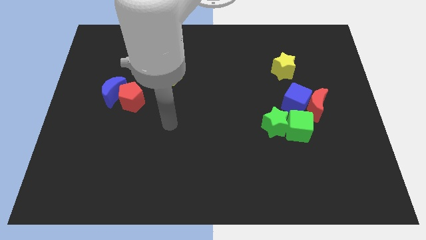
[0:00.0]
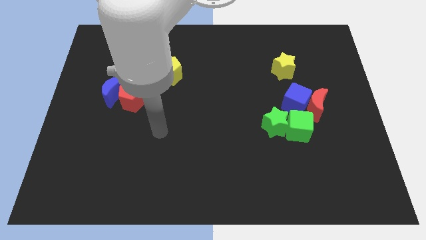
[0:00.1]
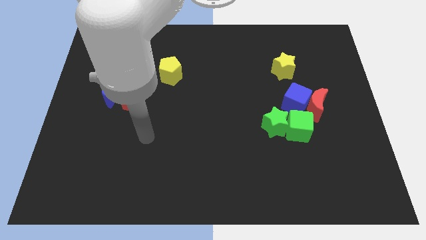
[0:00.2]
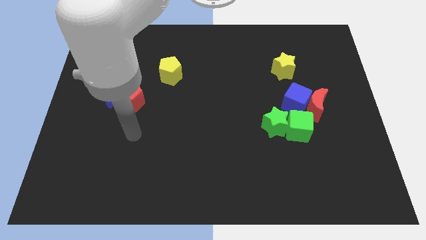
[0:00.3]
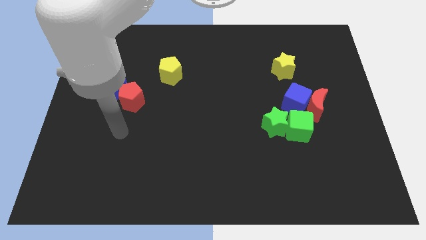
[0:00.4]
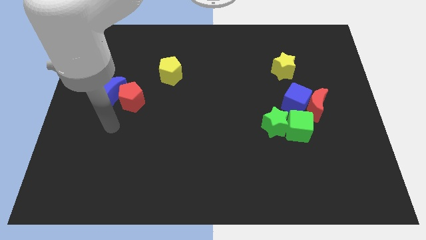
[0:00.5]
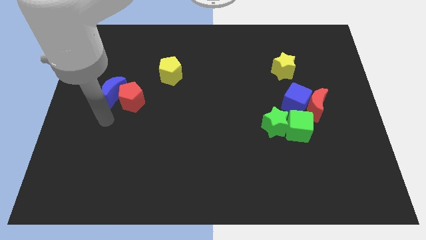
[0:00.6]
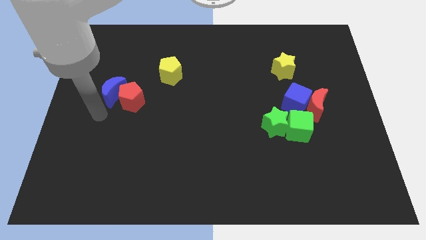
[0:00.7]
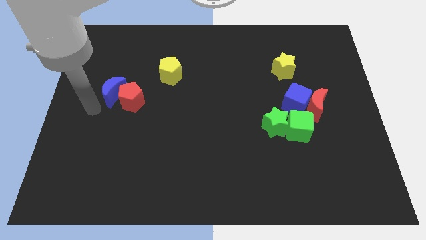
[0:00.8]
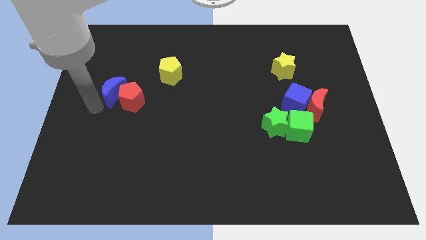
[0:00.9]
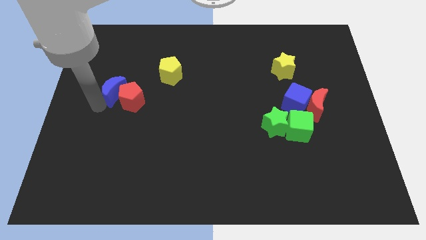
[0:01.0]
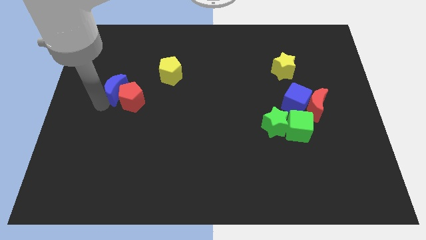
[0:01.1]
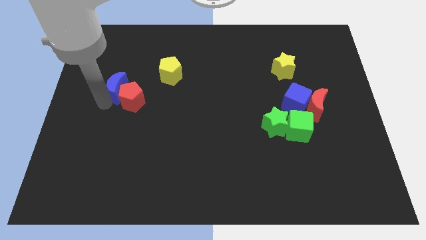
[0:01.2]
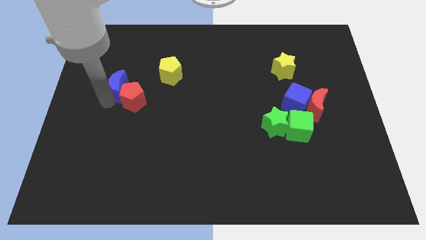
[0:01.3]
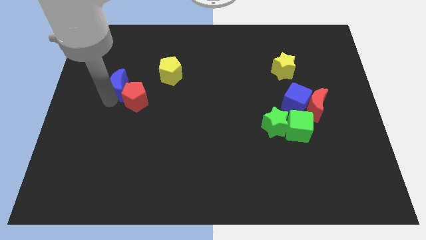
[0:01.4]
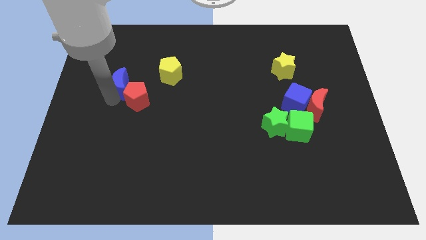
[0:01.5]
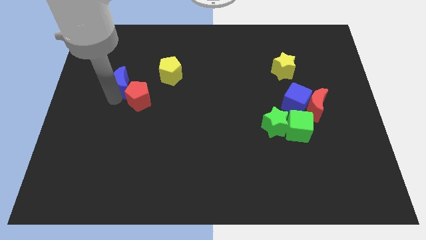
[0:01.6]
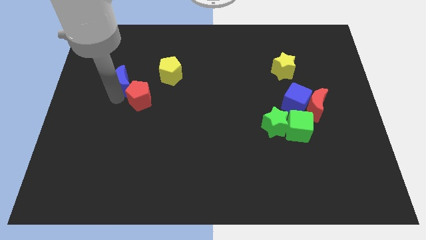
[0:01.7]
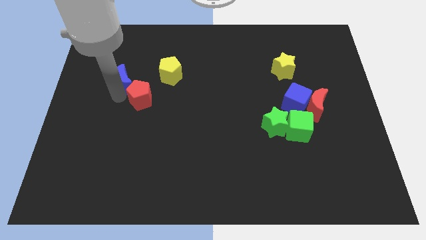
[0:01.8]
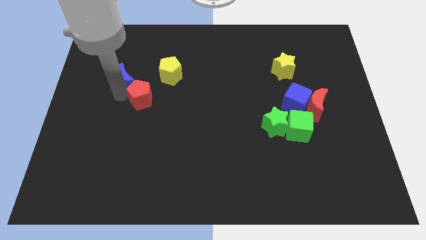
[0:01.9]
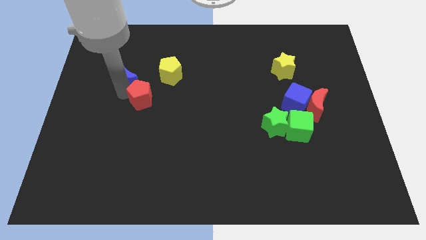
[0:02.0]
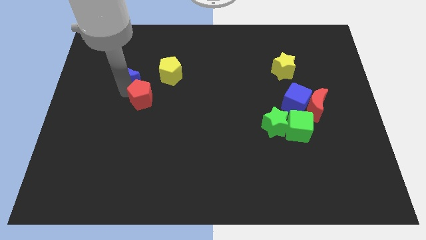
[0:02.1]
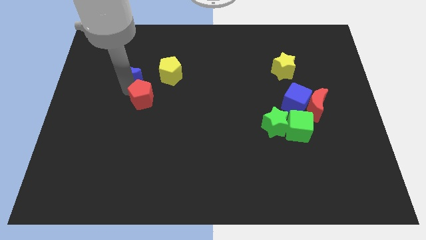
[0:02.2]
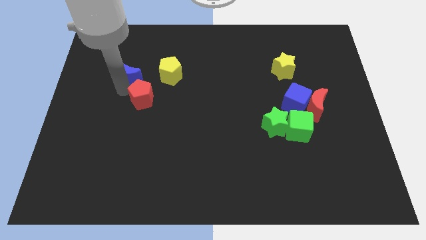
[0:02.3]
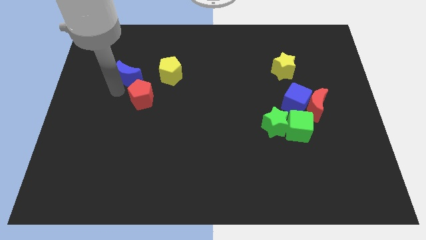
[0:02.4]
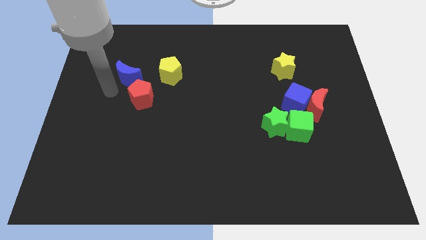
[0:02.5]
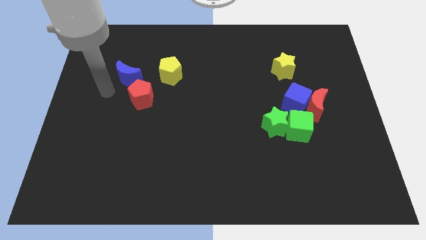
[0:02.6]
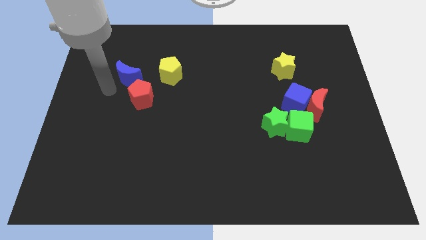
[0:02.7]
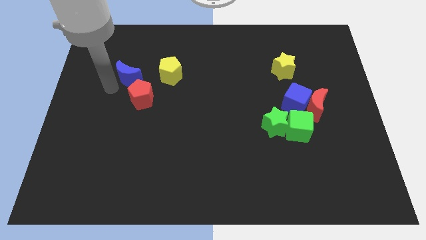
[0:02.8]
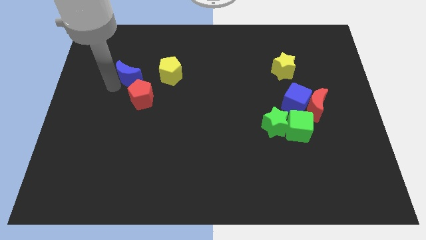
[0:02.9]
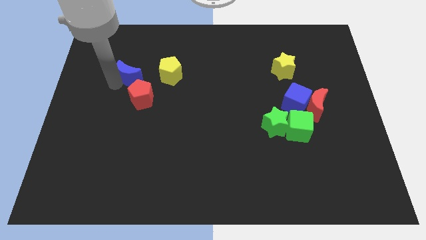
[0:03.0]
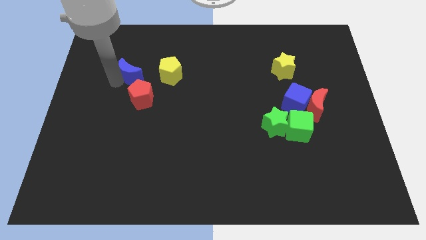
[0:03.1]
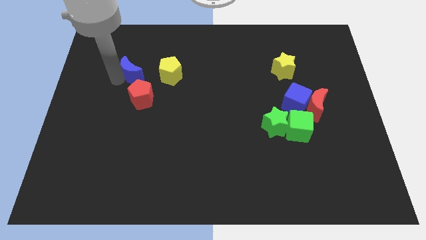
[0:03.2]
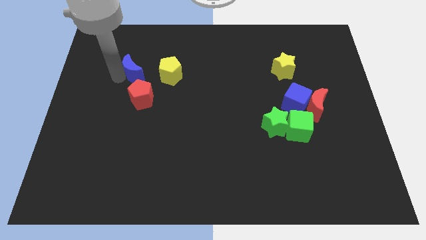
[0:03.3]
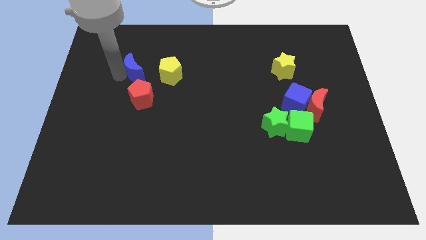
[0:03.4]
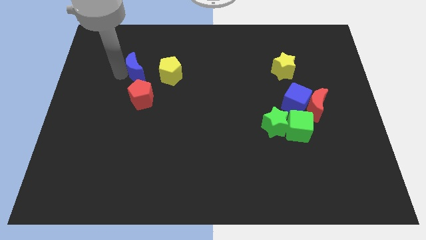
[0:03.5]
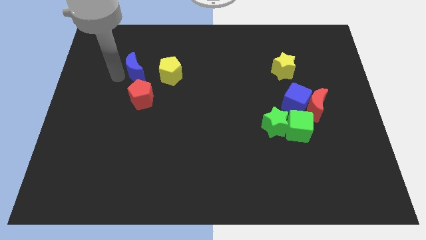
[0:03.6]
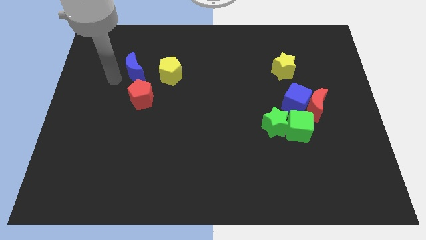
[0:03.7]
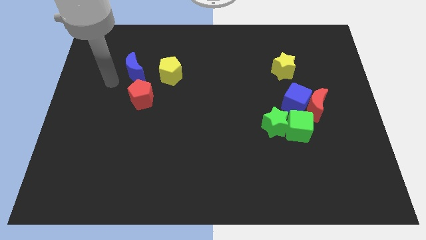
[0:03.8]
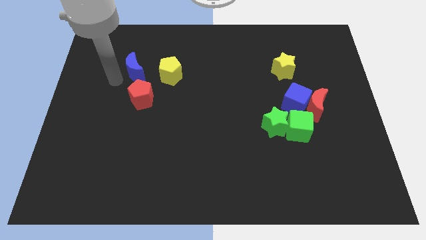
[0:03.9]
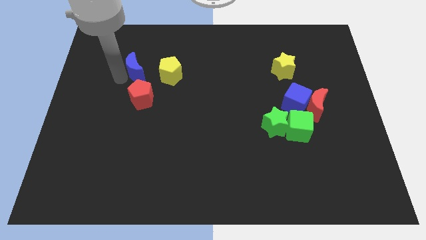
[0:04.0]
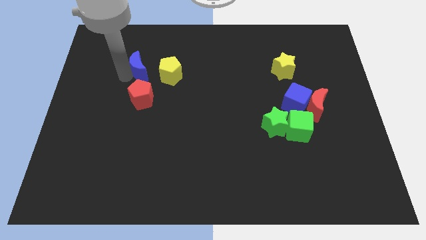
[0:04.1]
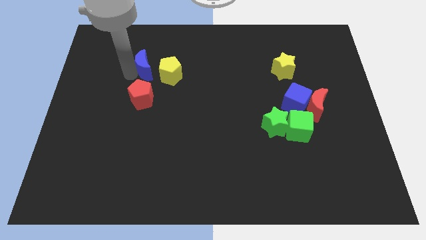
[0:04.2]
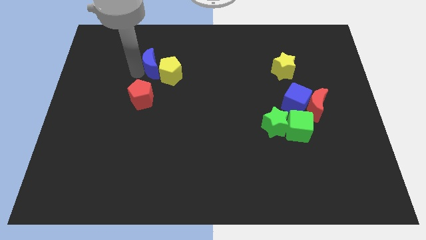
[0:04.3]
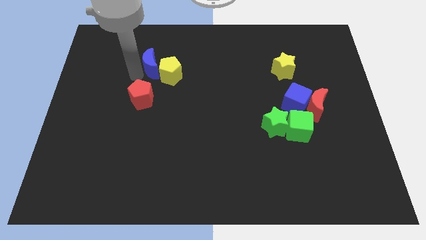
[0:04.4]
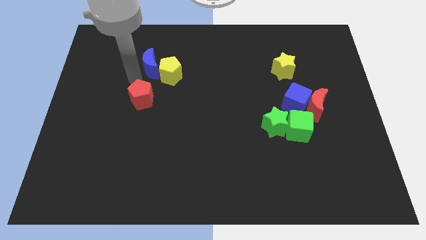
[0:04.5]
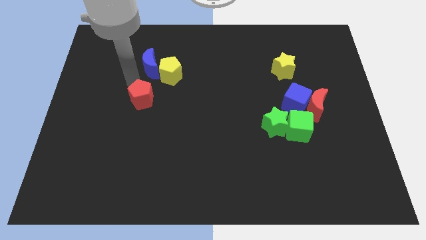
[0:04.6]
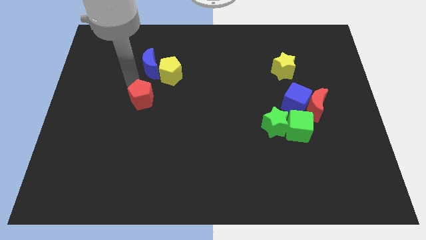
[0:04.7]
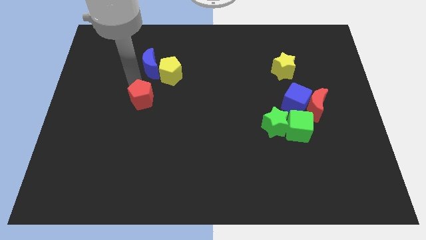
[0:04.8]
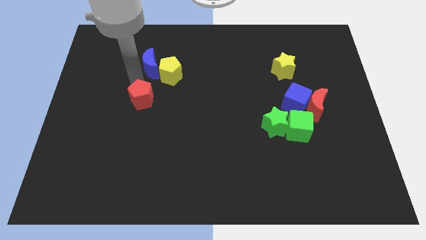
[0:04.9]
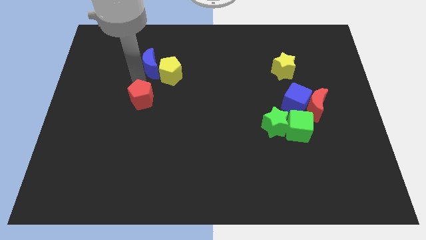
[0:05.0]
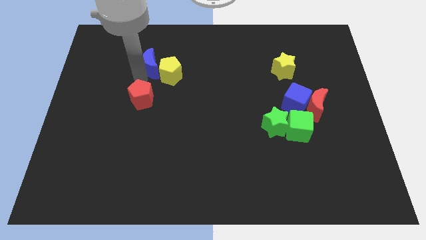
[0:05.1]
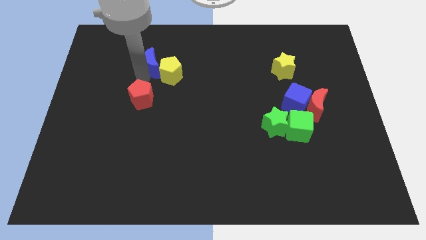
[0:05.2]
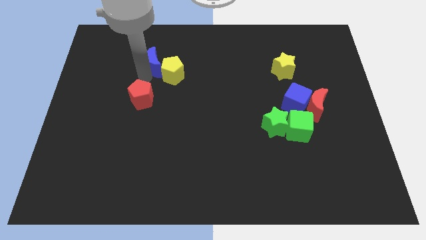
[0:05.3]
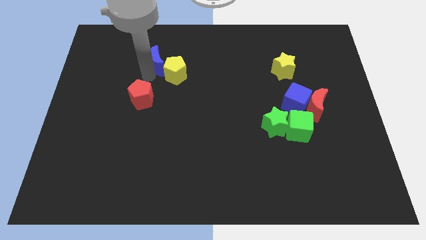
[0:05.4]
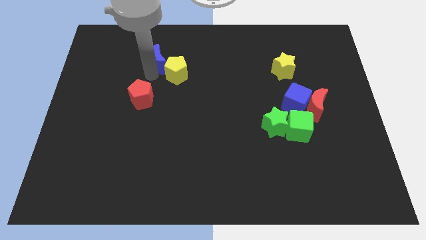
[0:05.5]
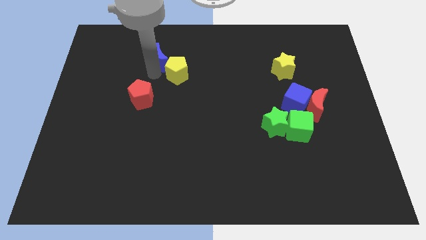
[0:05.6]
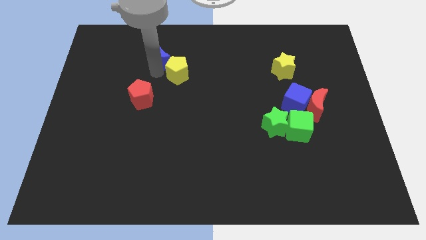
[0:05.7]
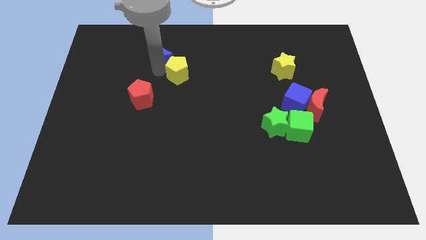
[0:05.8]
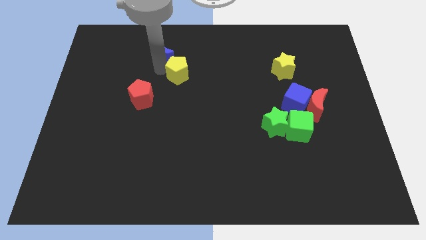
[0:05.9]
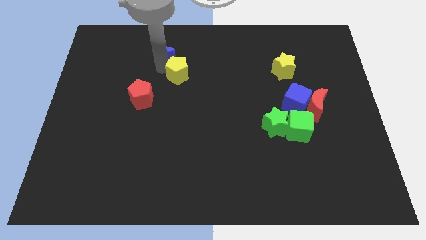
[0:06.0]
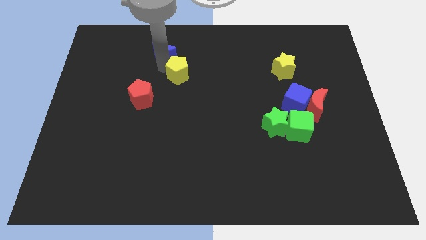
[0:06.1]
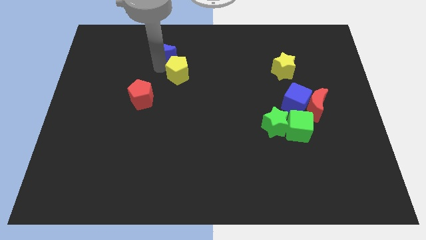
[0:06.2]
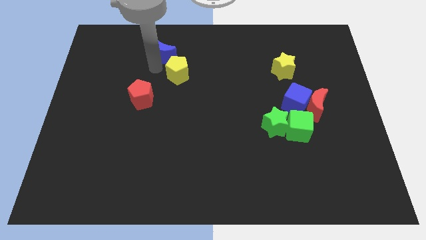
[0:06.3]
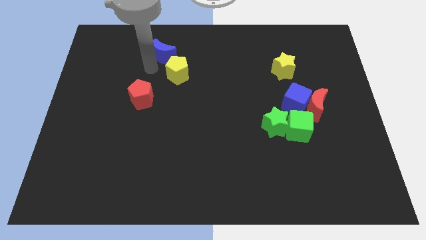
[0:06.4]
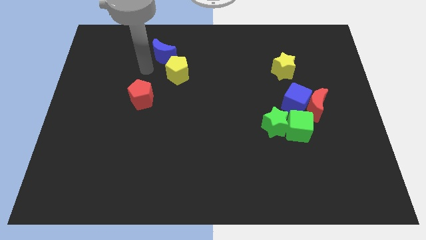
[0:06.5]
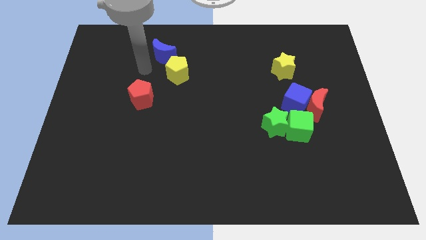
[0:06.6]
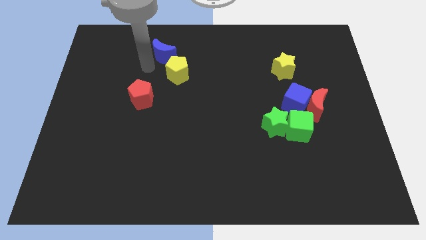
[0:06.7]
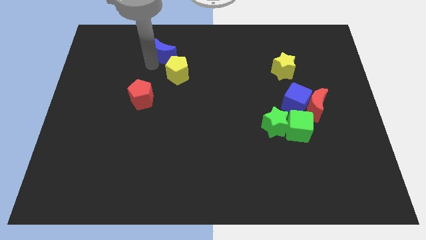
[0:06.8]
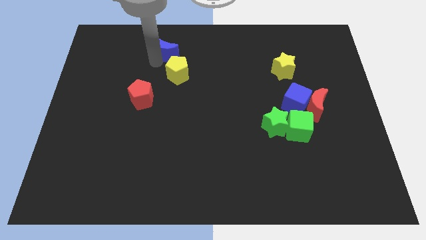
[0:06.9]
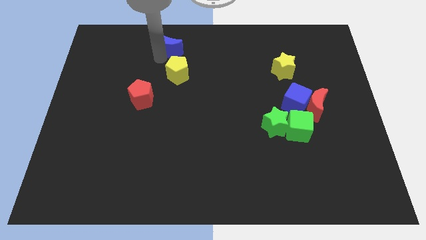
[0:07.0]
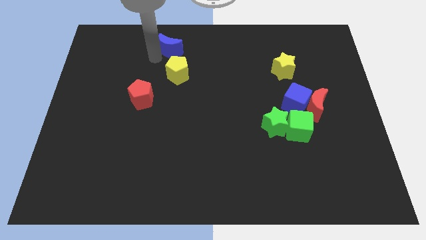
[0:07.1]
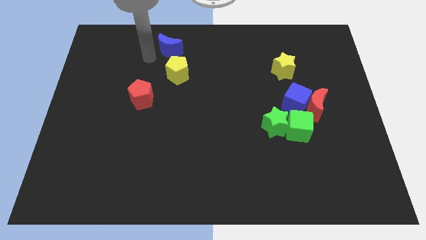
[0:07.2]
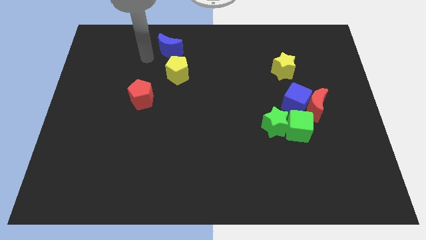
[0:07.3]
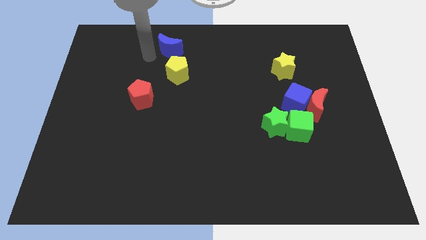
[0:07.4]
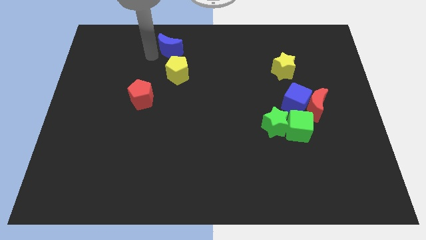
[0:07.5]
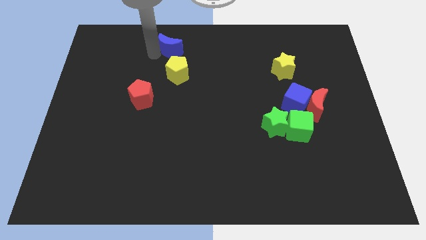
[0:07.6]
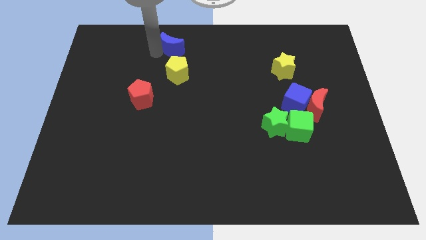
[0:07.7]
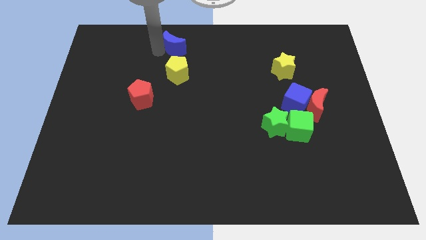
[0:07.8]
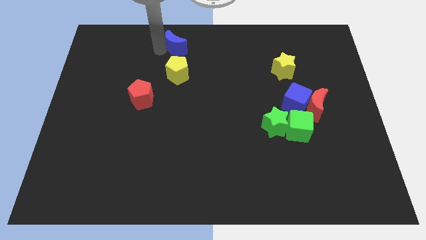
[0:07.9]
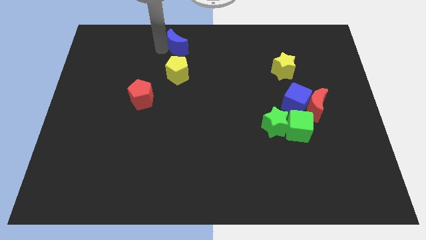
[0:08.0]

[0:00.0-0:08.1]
put the blue moon to the towards your base
